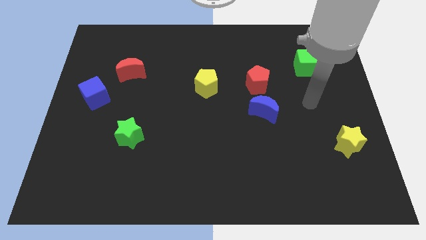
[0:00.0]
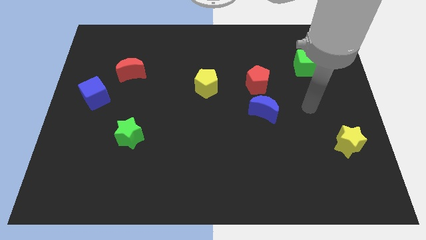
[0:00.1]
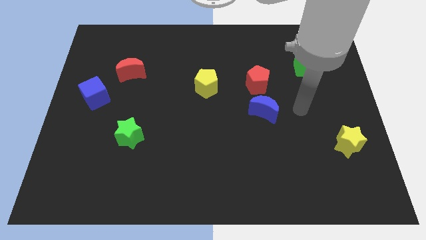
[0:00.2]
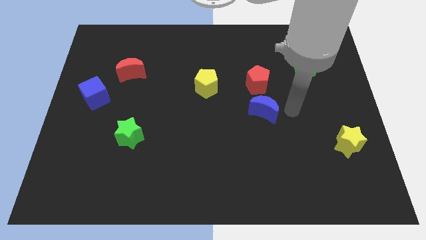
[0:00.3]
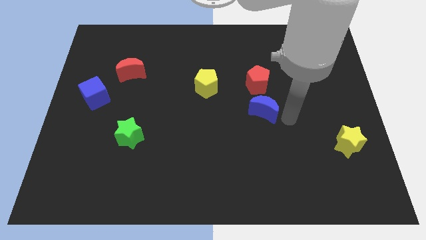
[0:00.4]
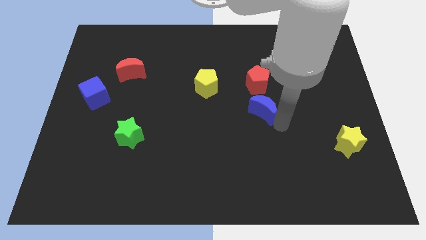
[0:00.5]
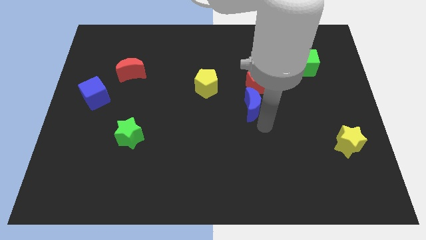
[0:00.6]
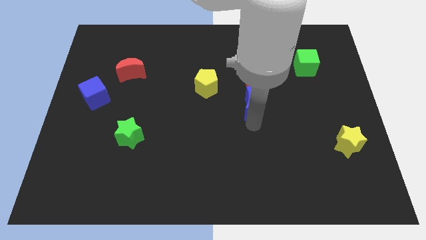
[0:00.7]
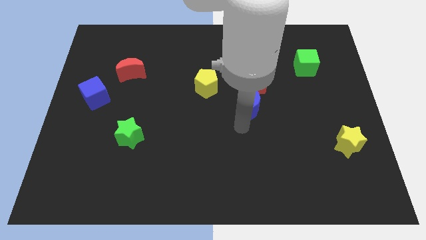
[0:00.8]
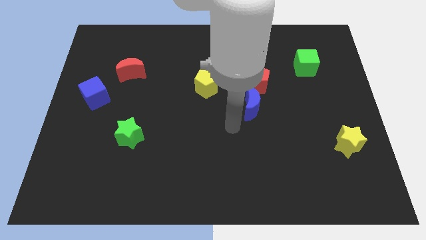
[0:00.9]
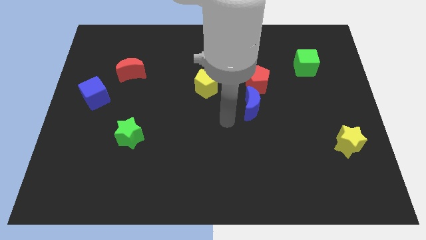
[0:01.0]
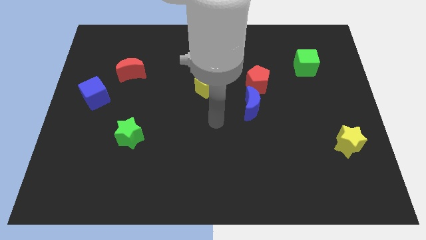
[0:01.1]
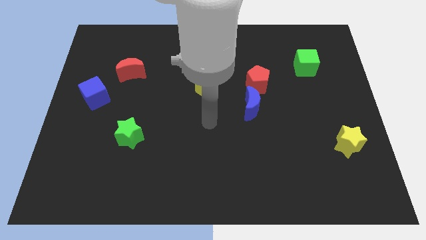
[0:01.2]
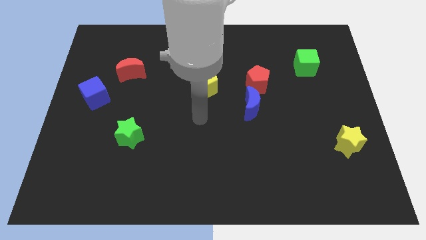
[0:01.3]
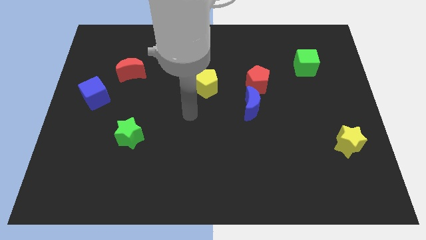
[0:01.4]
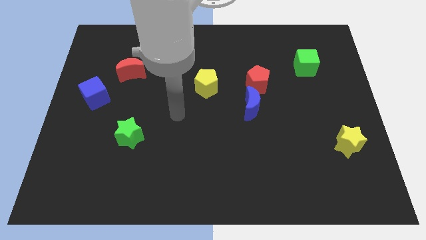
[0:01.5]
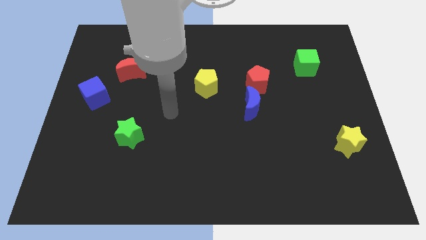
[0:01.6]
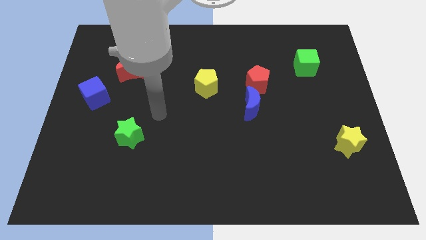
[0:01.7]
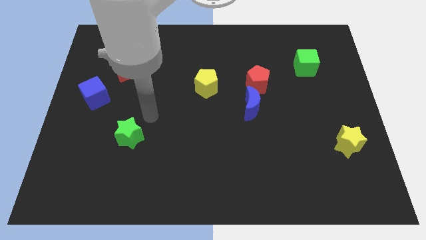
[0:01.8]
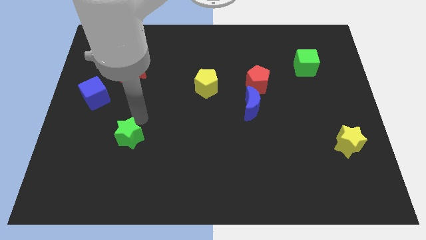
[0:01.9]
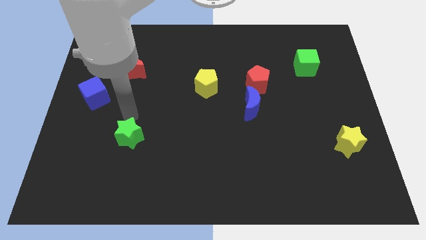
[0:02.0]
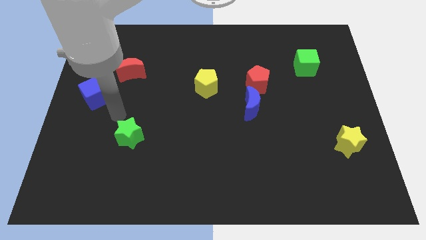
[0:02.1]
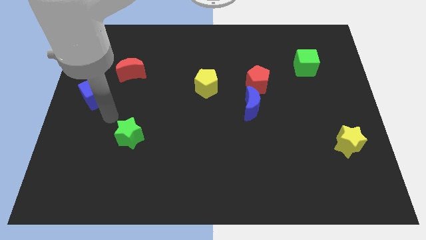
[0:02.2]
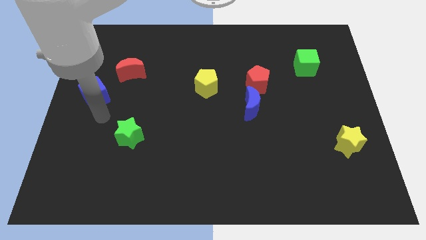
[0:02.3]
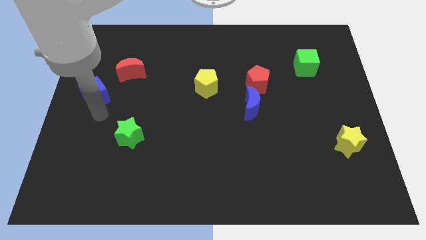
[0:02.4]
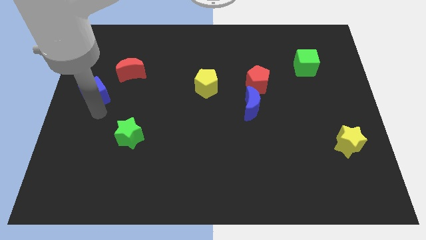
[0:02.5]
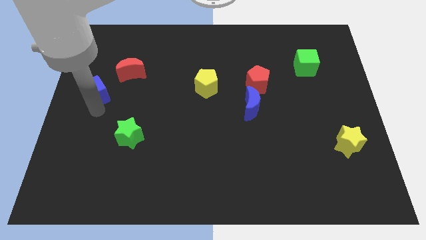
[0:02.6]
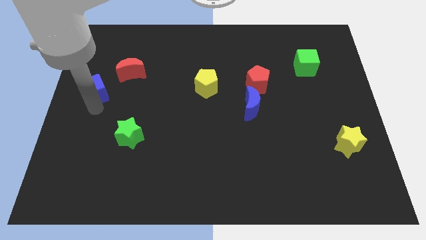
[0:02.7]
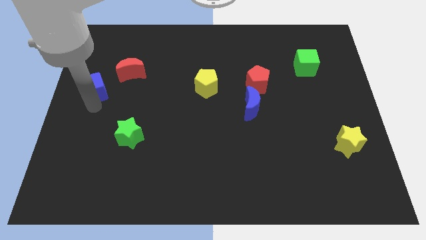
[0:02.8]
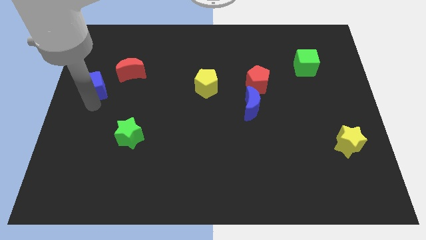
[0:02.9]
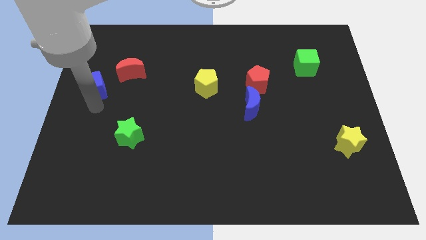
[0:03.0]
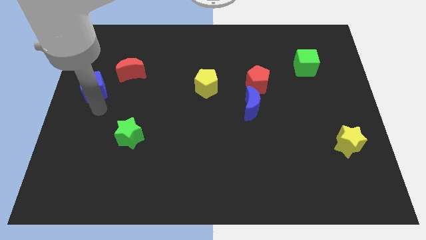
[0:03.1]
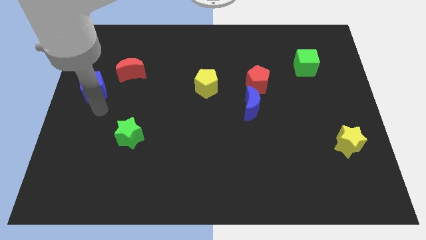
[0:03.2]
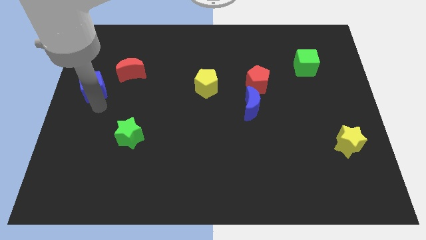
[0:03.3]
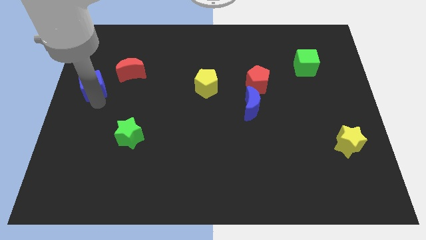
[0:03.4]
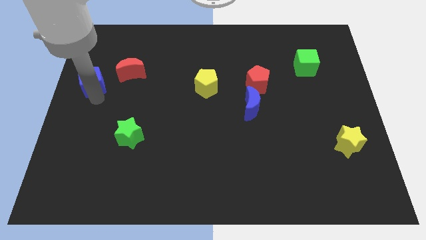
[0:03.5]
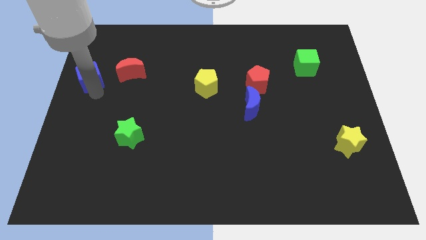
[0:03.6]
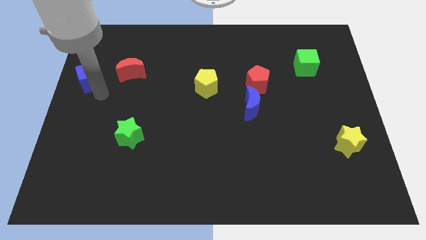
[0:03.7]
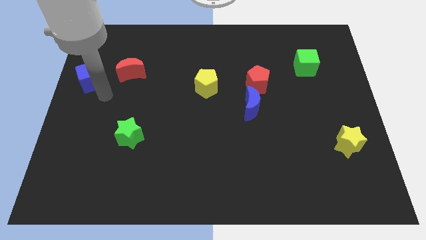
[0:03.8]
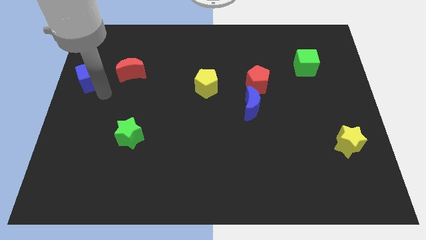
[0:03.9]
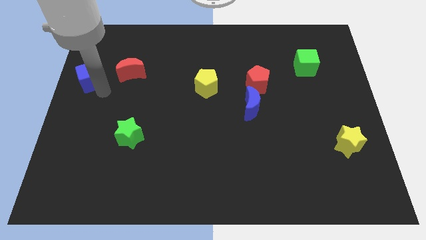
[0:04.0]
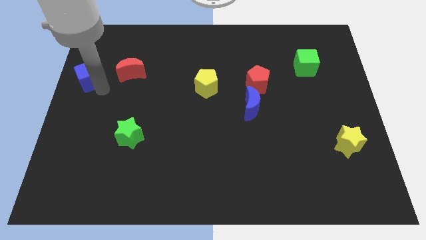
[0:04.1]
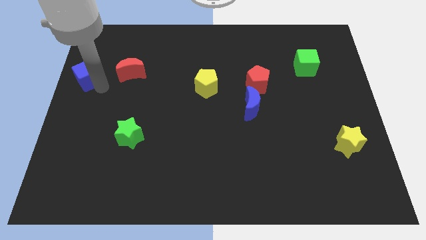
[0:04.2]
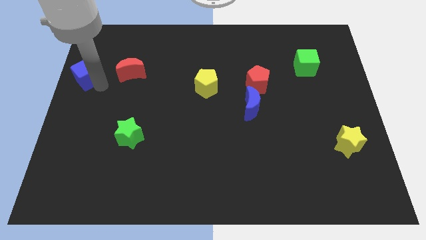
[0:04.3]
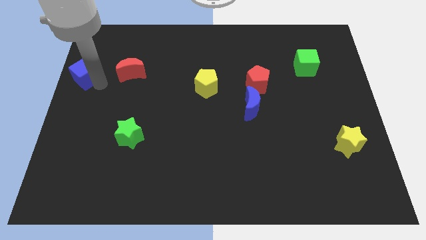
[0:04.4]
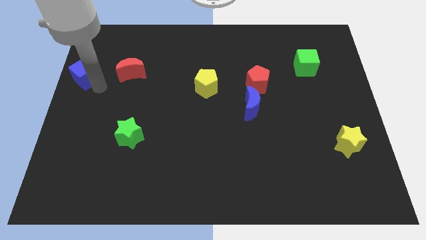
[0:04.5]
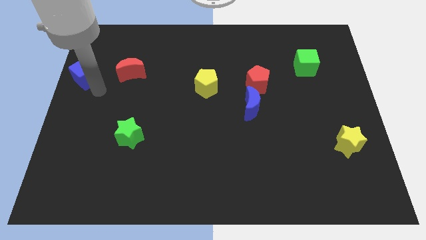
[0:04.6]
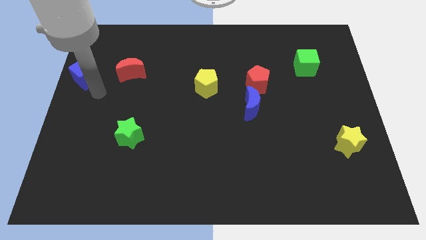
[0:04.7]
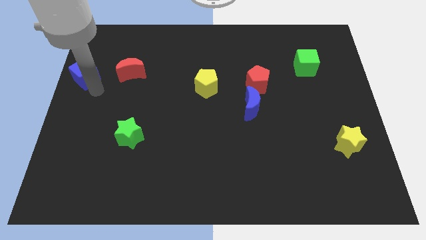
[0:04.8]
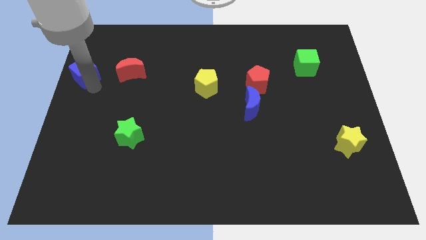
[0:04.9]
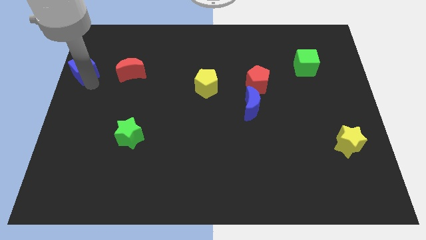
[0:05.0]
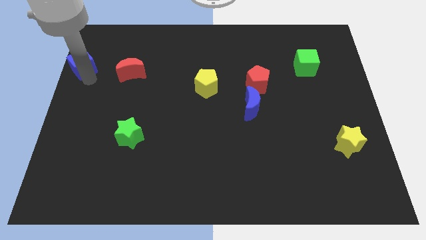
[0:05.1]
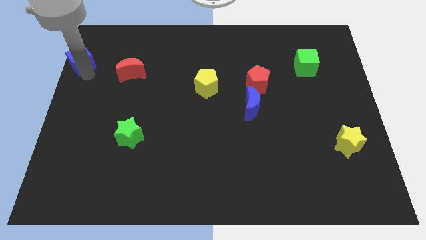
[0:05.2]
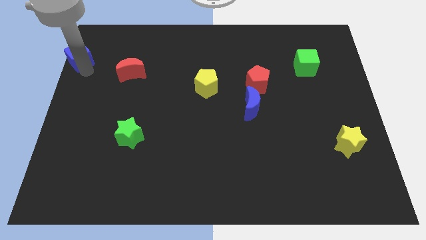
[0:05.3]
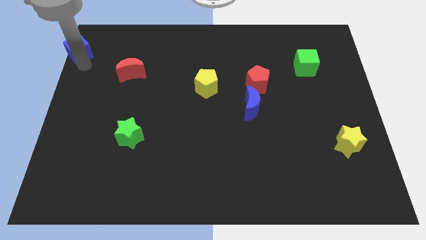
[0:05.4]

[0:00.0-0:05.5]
slide the blue cube to the top left of the board
